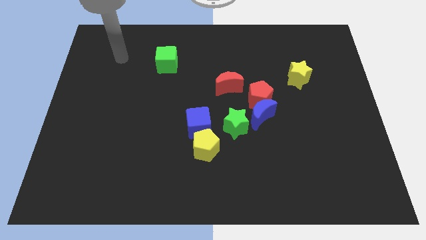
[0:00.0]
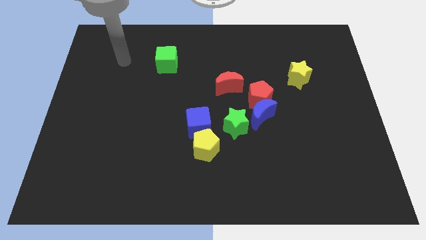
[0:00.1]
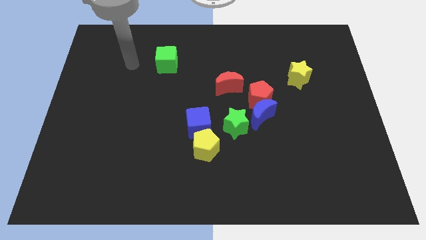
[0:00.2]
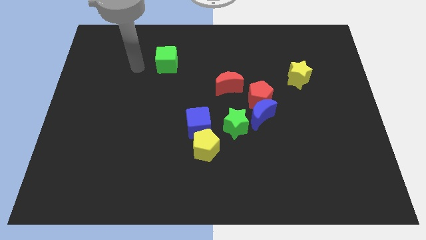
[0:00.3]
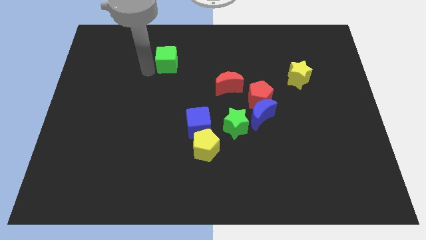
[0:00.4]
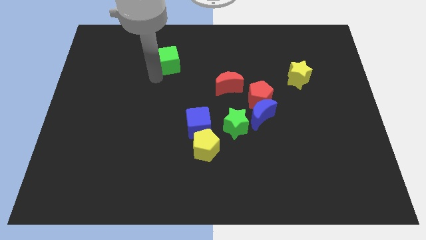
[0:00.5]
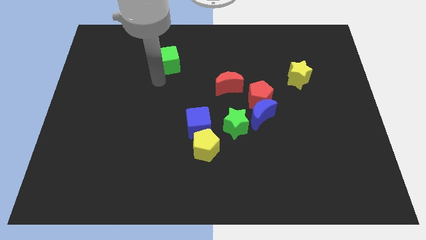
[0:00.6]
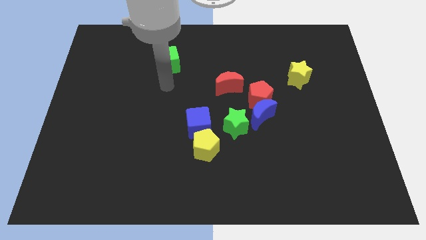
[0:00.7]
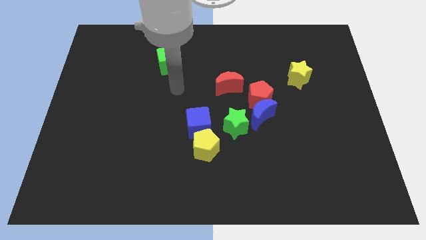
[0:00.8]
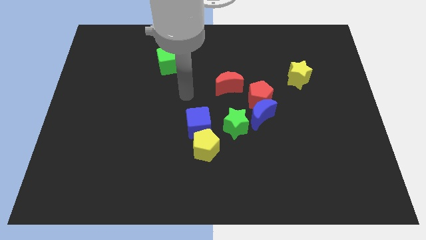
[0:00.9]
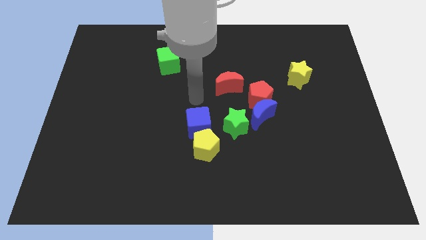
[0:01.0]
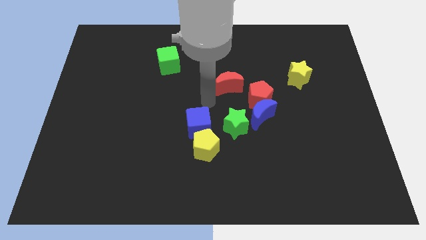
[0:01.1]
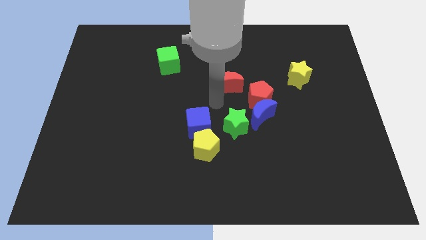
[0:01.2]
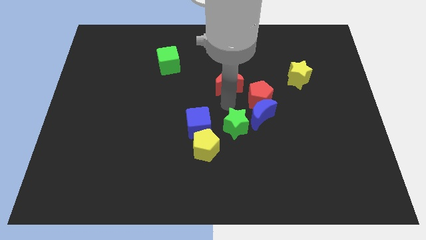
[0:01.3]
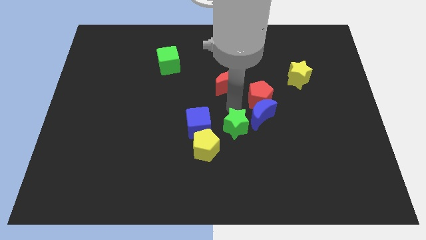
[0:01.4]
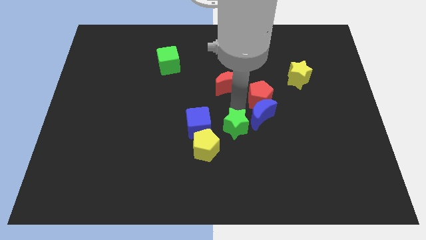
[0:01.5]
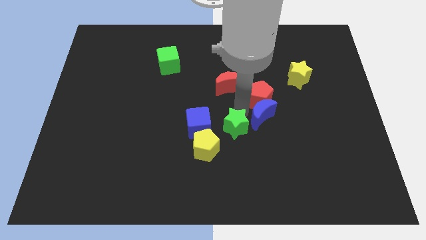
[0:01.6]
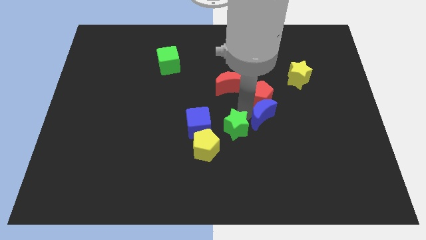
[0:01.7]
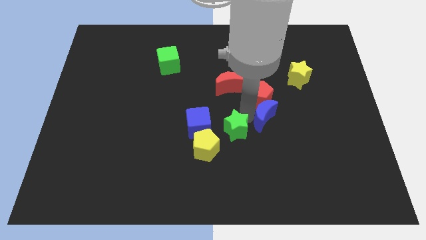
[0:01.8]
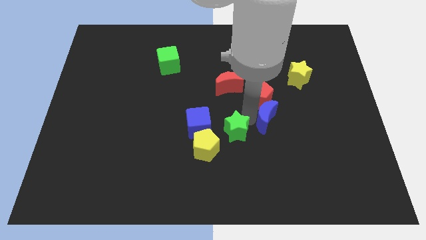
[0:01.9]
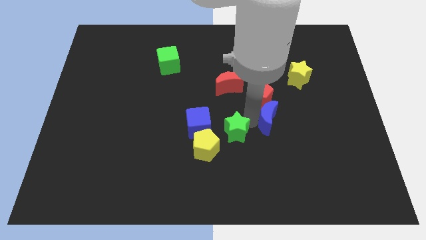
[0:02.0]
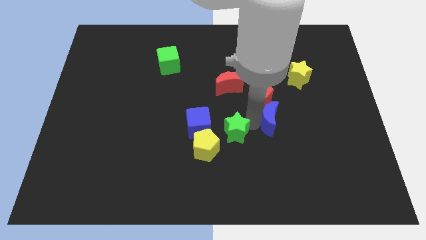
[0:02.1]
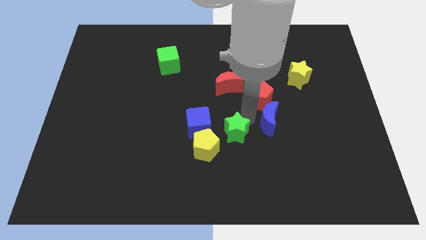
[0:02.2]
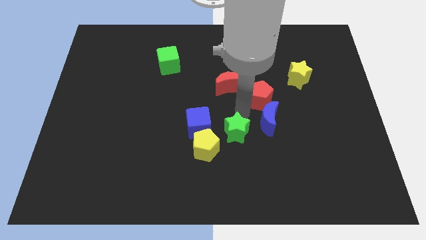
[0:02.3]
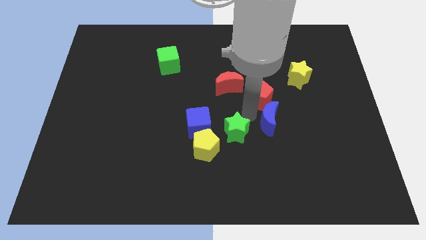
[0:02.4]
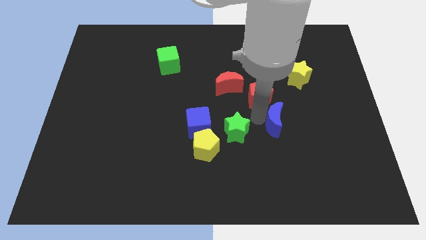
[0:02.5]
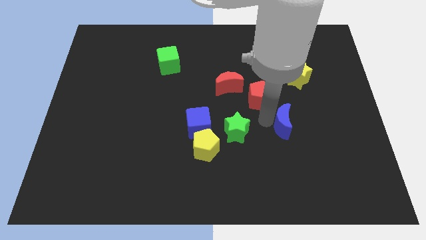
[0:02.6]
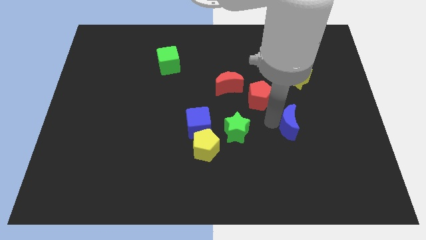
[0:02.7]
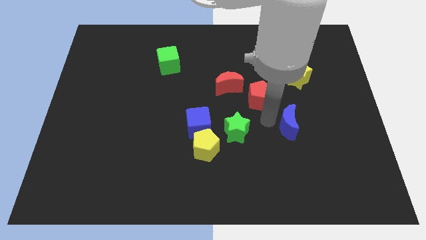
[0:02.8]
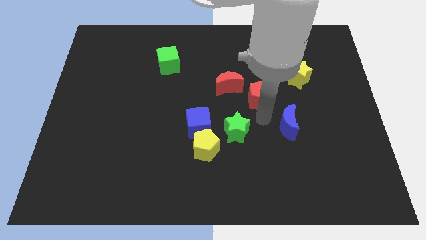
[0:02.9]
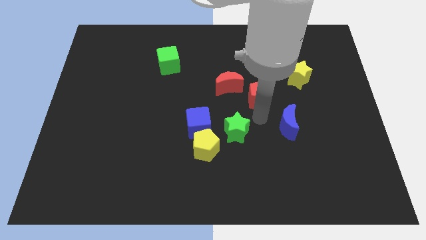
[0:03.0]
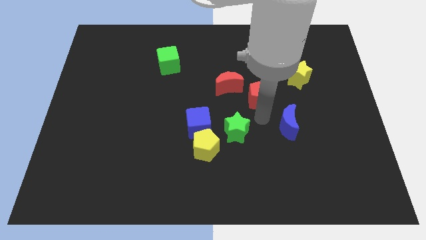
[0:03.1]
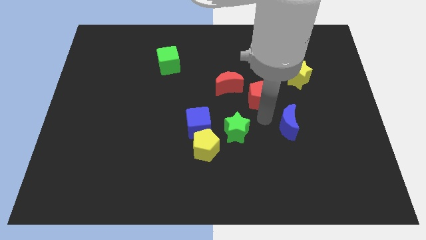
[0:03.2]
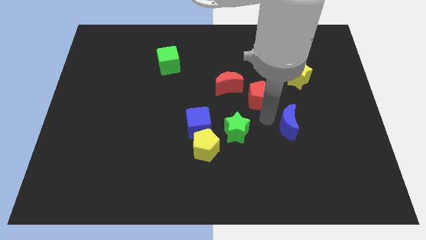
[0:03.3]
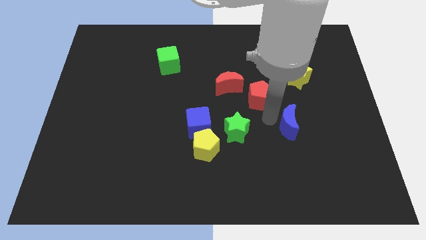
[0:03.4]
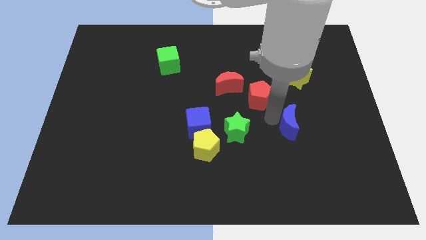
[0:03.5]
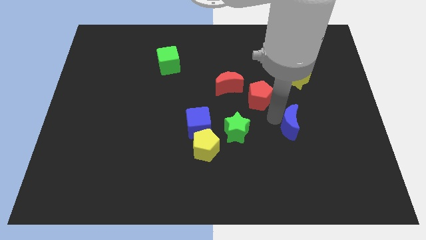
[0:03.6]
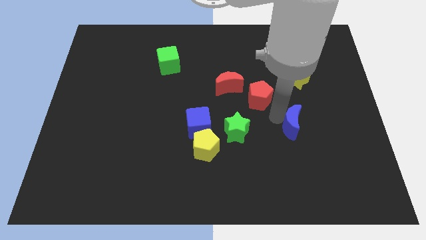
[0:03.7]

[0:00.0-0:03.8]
move the blue moon away from the red pentagon and green star

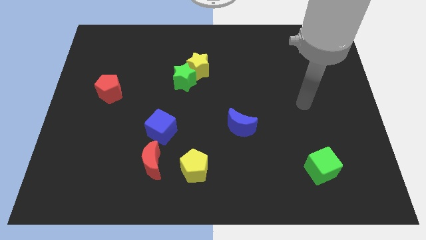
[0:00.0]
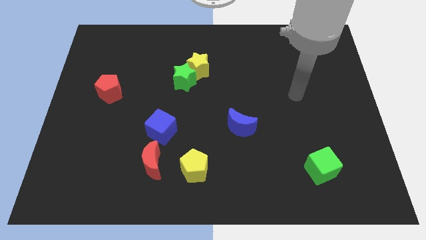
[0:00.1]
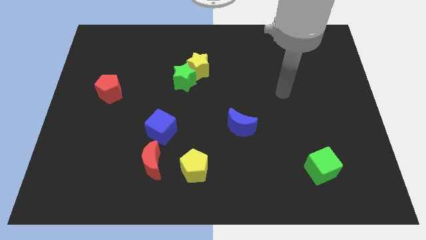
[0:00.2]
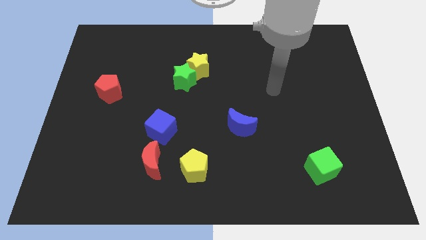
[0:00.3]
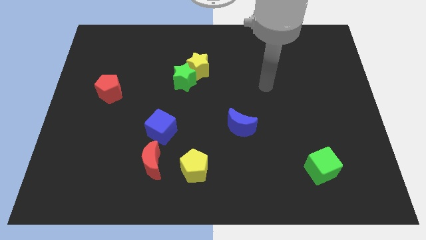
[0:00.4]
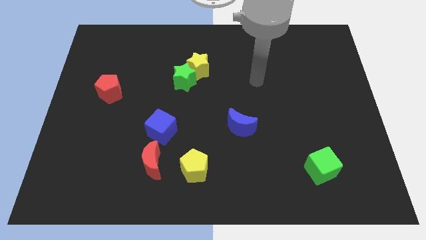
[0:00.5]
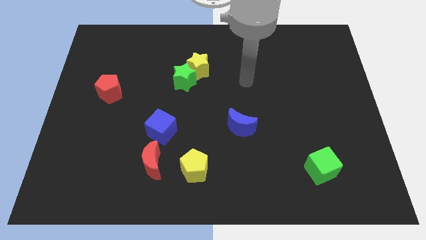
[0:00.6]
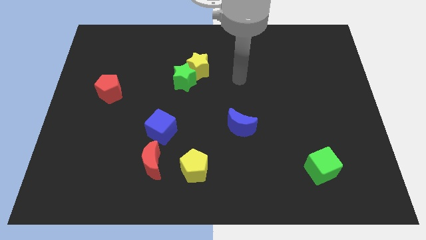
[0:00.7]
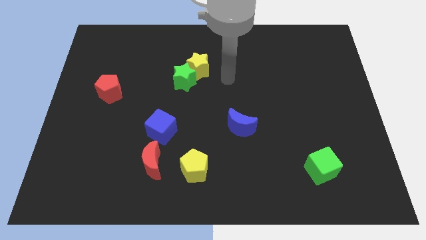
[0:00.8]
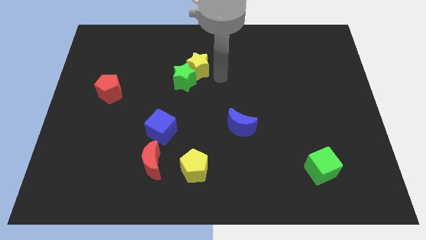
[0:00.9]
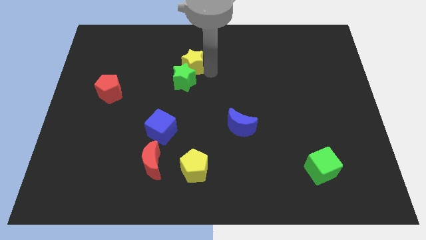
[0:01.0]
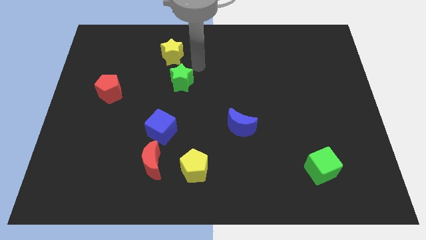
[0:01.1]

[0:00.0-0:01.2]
pull the green star apart from the yellow star

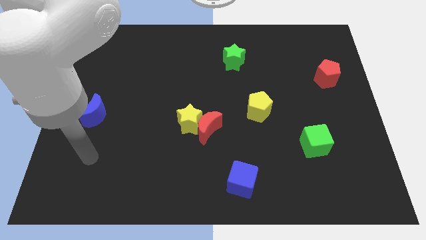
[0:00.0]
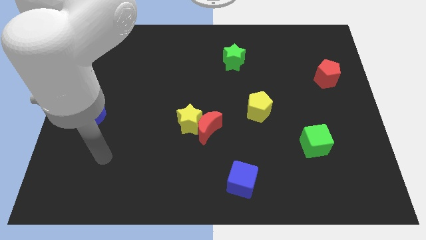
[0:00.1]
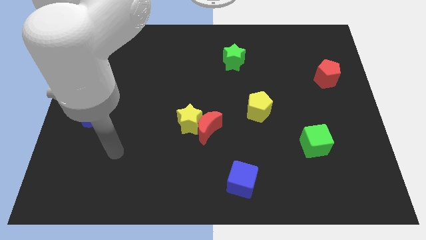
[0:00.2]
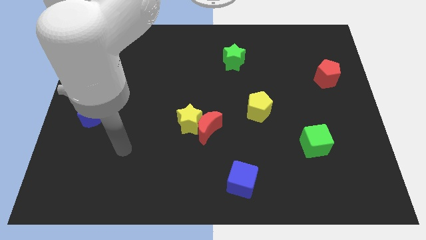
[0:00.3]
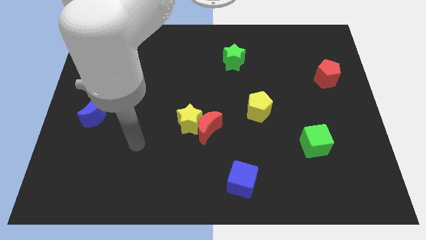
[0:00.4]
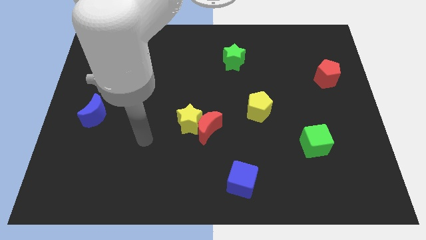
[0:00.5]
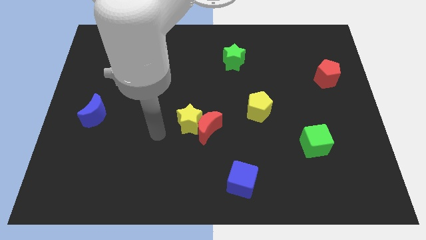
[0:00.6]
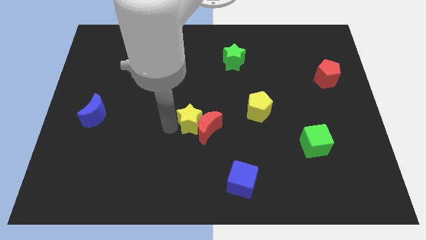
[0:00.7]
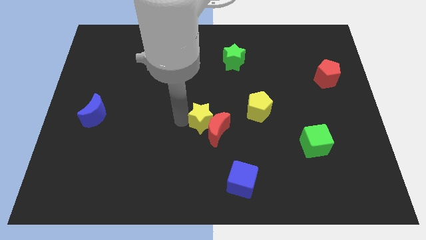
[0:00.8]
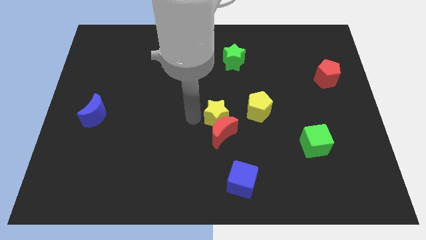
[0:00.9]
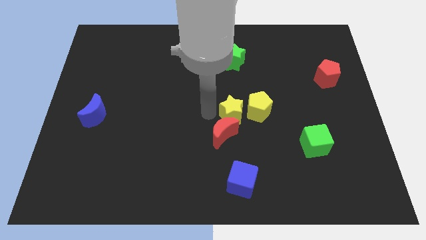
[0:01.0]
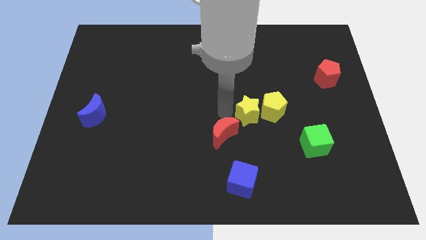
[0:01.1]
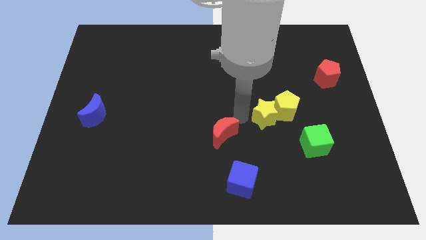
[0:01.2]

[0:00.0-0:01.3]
pull the red moon apart from the yellow star

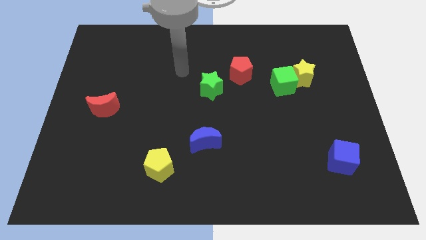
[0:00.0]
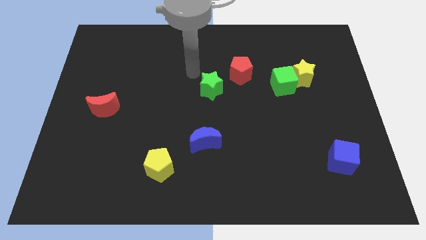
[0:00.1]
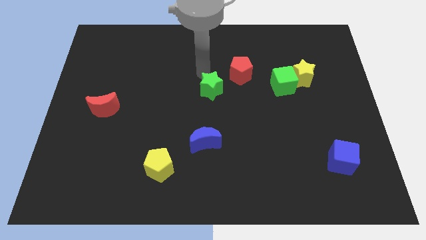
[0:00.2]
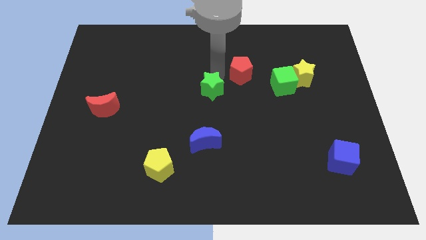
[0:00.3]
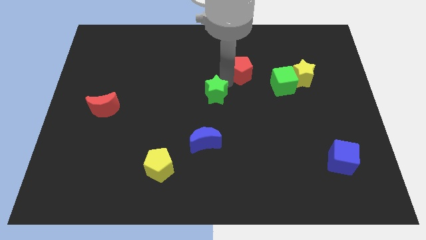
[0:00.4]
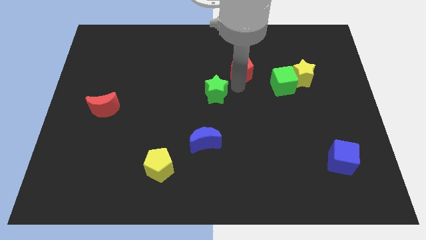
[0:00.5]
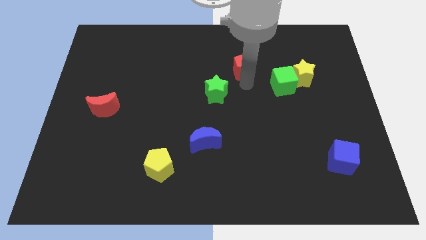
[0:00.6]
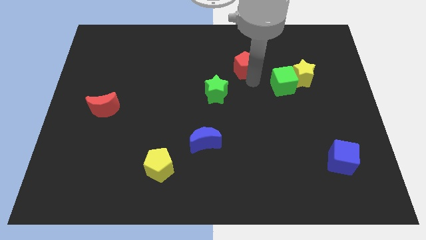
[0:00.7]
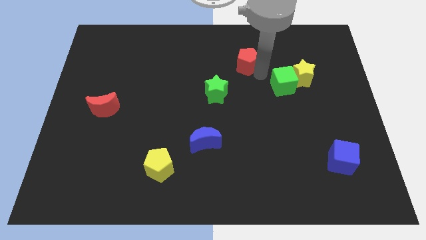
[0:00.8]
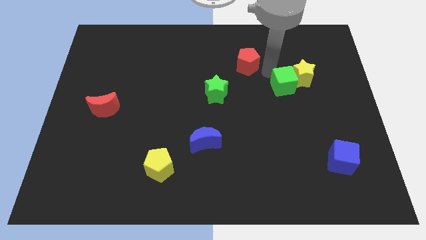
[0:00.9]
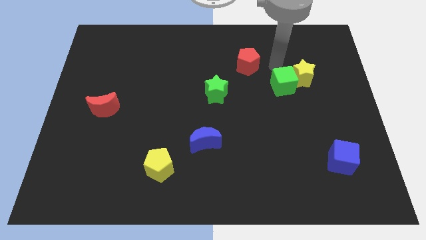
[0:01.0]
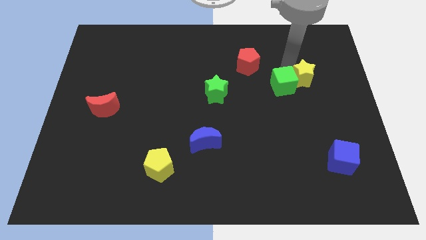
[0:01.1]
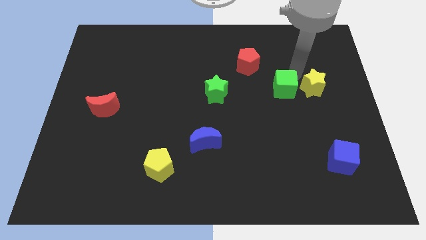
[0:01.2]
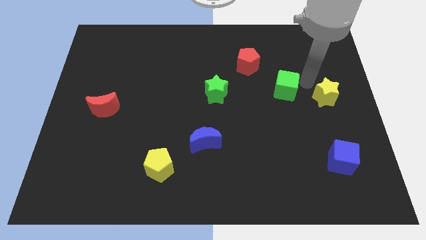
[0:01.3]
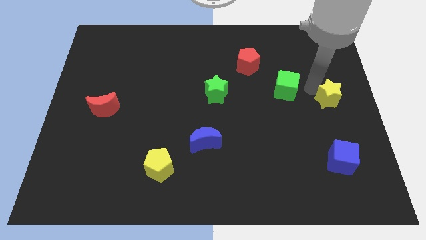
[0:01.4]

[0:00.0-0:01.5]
pull the green cube apart from the yellow star

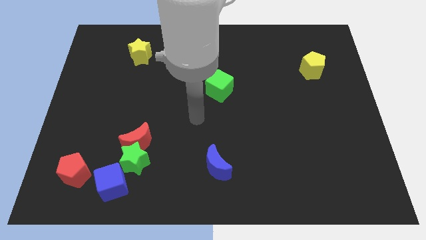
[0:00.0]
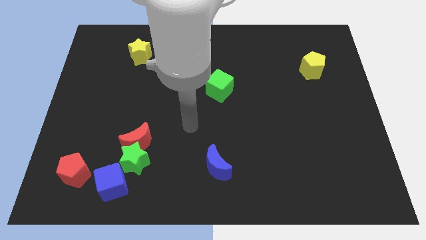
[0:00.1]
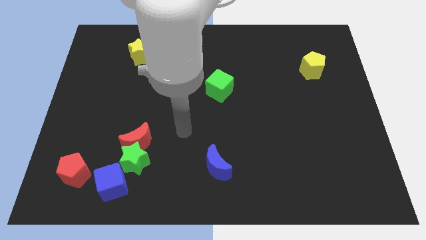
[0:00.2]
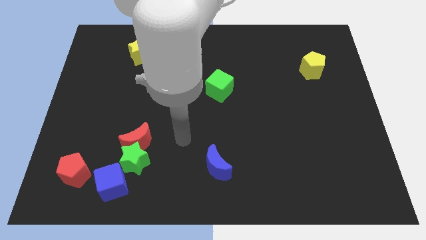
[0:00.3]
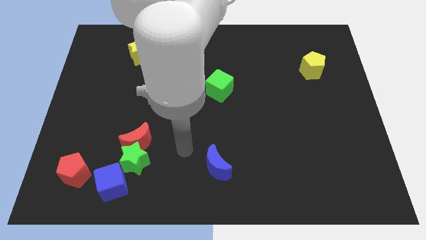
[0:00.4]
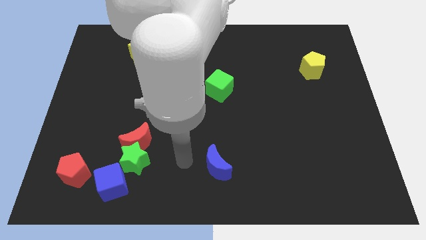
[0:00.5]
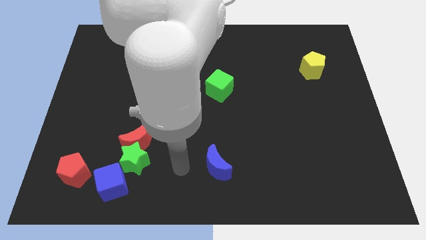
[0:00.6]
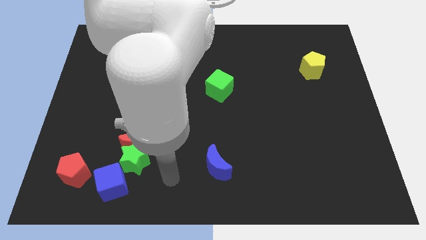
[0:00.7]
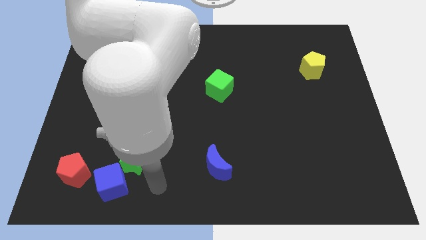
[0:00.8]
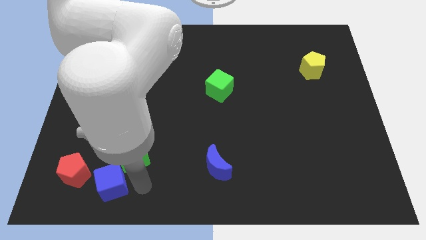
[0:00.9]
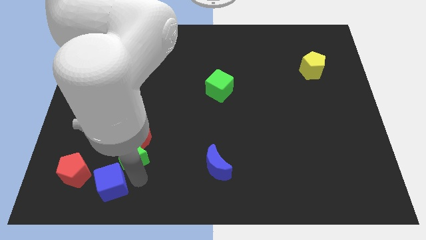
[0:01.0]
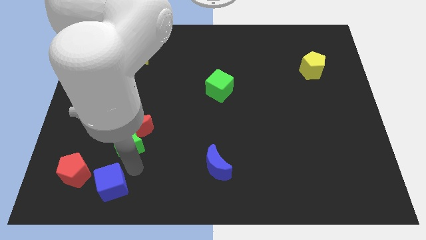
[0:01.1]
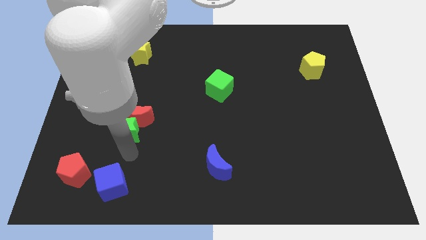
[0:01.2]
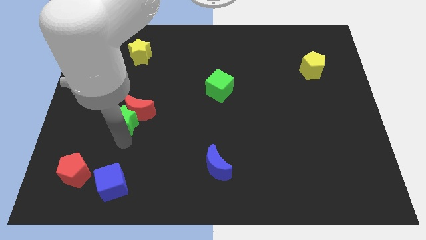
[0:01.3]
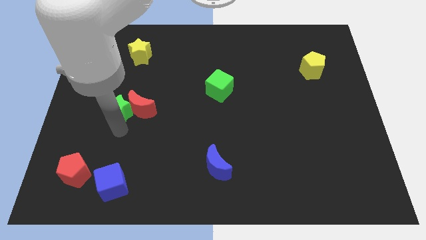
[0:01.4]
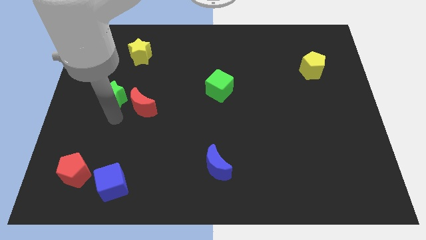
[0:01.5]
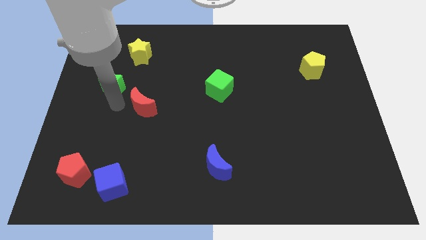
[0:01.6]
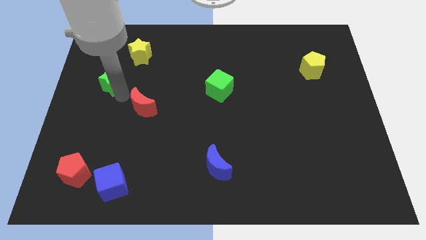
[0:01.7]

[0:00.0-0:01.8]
pull the red moon apart from the green star
